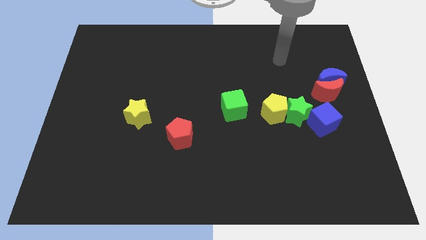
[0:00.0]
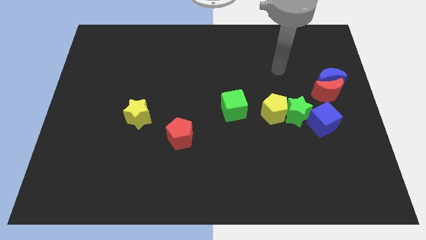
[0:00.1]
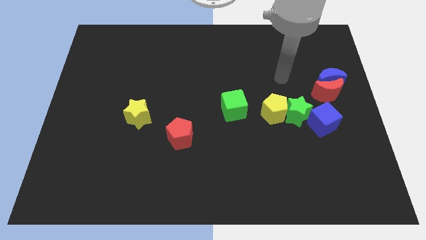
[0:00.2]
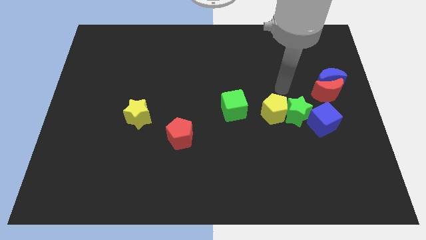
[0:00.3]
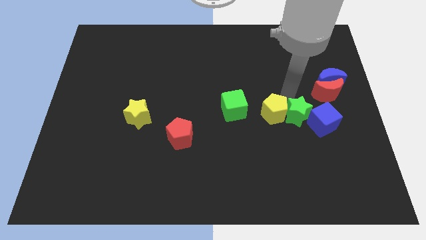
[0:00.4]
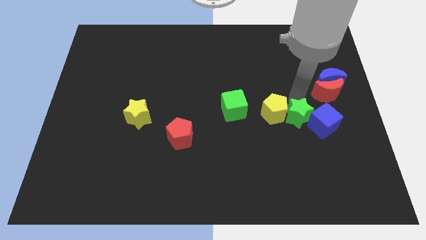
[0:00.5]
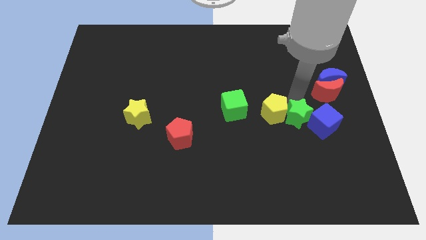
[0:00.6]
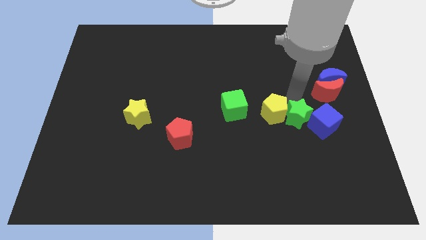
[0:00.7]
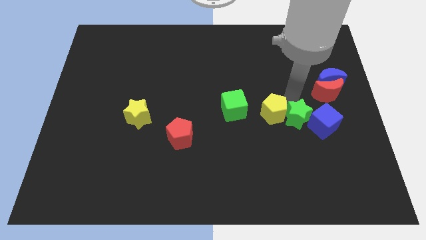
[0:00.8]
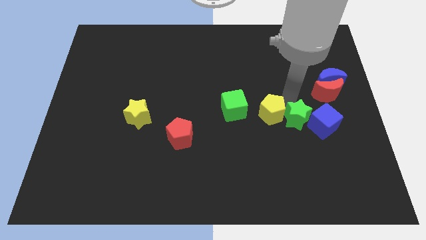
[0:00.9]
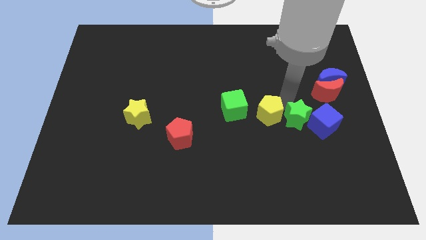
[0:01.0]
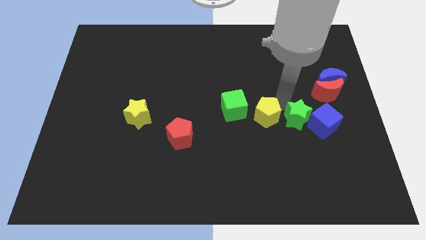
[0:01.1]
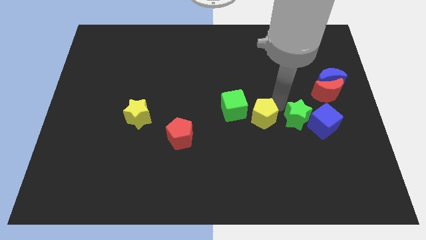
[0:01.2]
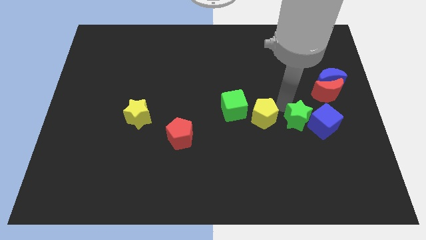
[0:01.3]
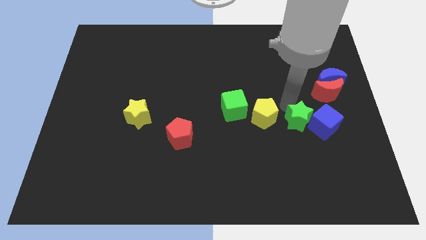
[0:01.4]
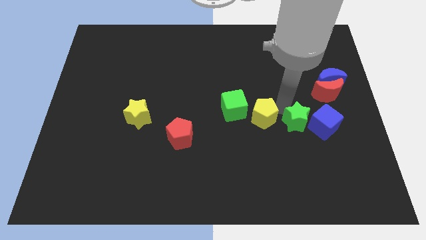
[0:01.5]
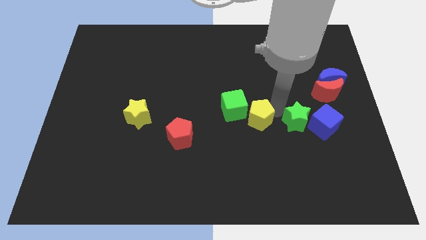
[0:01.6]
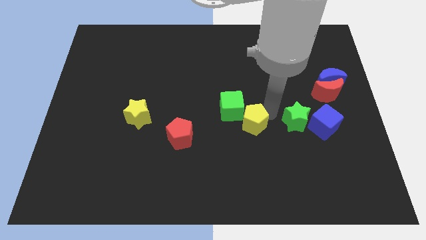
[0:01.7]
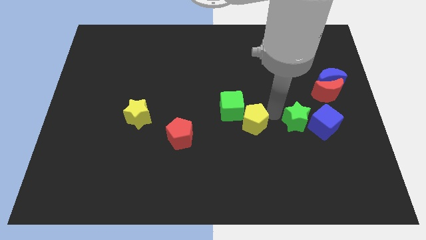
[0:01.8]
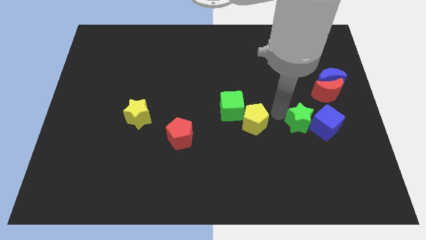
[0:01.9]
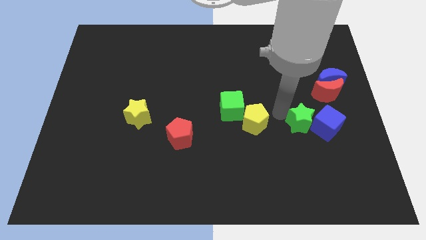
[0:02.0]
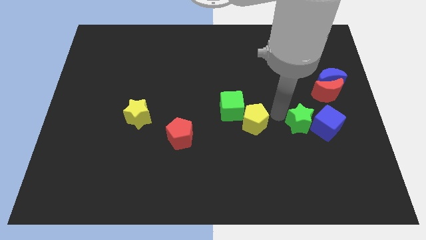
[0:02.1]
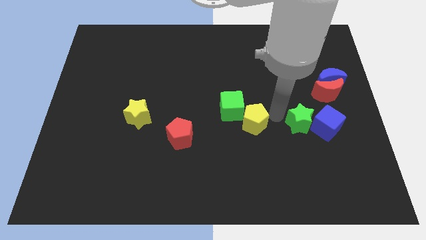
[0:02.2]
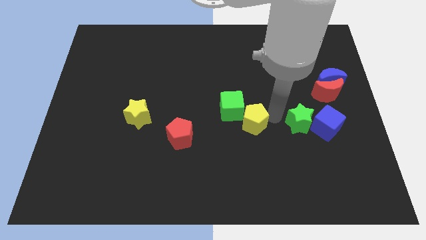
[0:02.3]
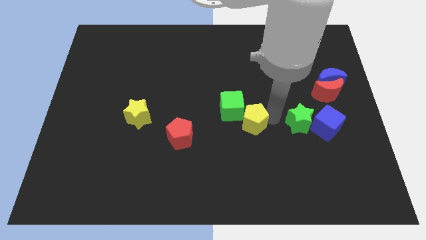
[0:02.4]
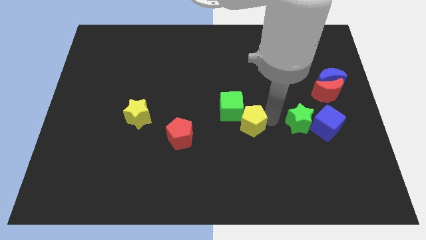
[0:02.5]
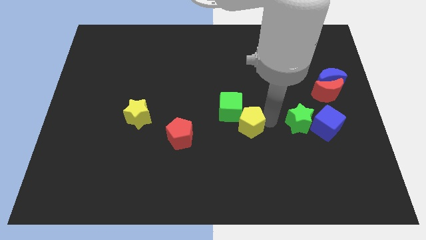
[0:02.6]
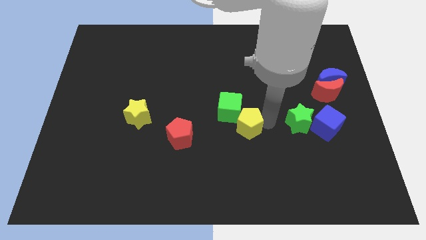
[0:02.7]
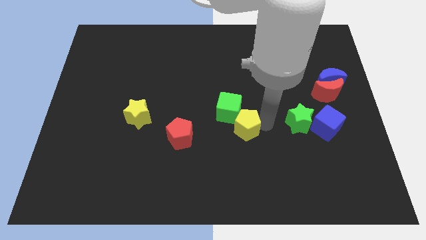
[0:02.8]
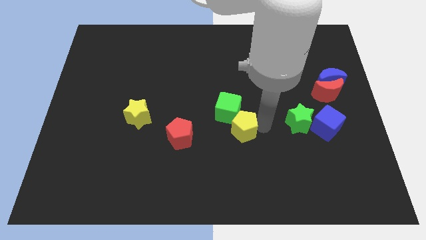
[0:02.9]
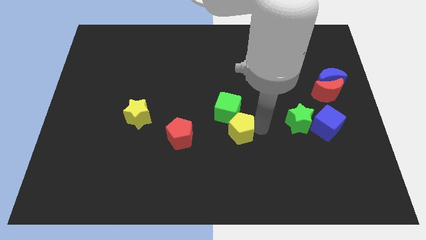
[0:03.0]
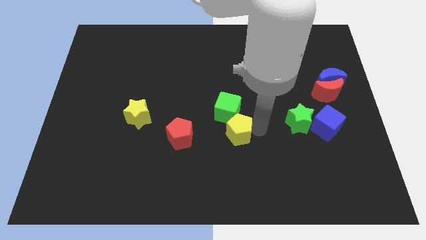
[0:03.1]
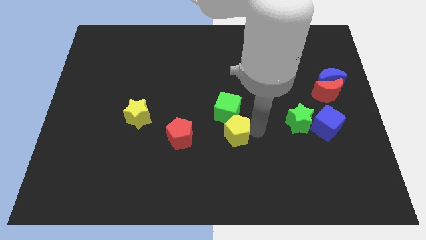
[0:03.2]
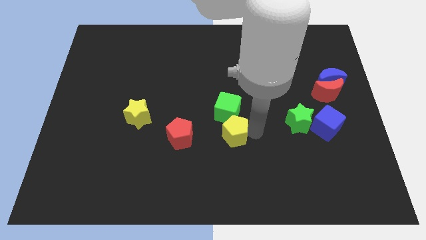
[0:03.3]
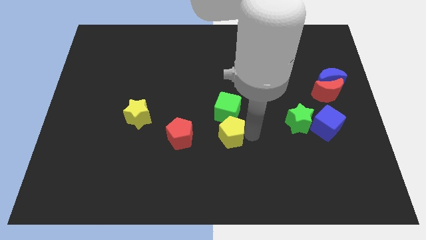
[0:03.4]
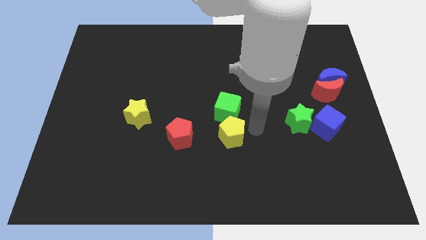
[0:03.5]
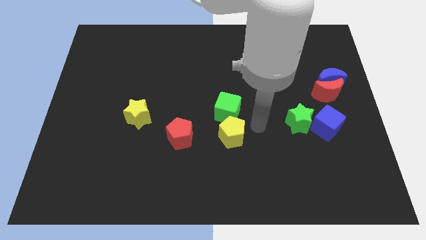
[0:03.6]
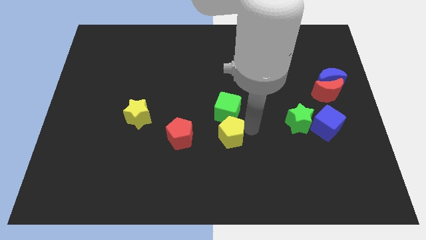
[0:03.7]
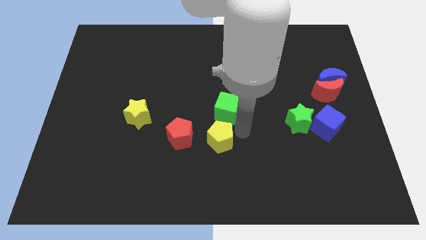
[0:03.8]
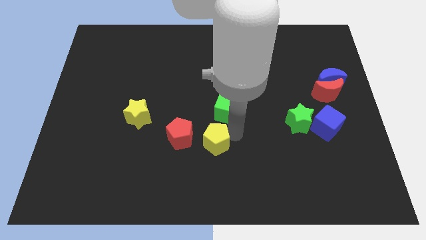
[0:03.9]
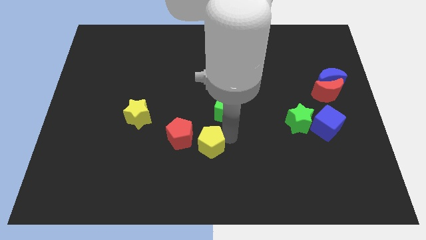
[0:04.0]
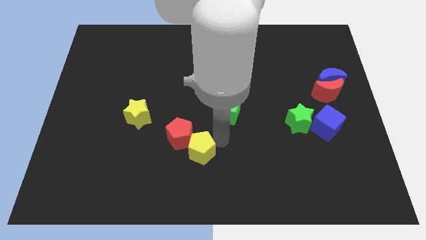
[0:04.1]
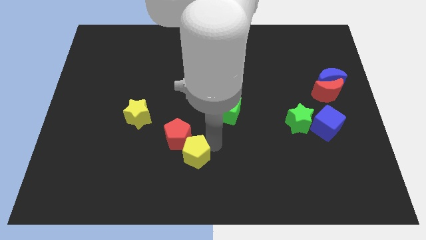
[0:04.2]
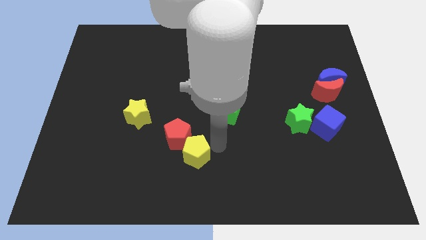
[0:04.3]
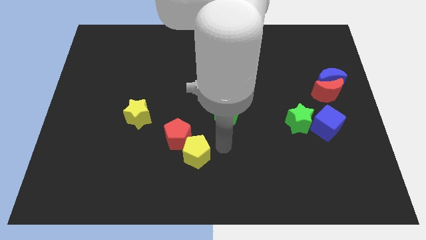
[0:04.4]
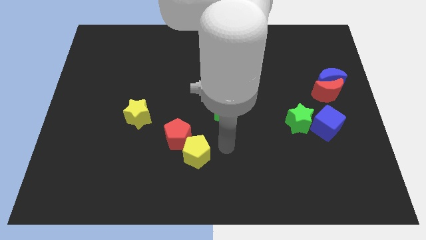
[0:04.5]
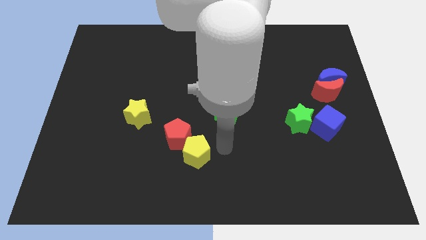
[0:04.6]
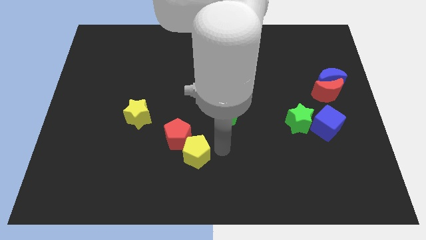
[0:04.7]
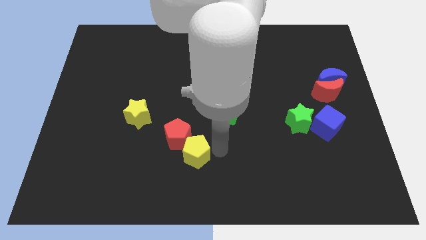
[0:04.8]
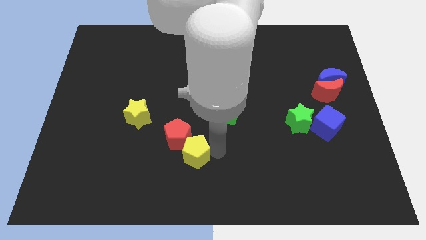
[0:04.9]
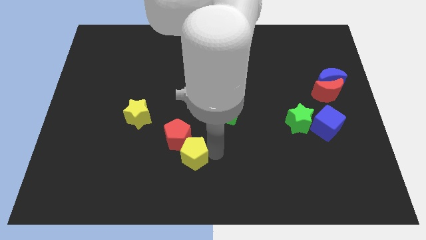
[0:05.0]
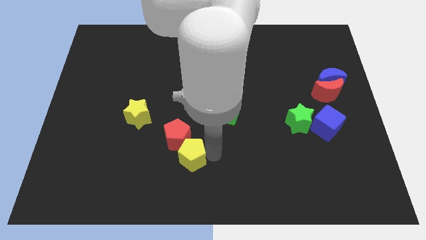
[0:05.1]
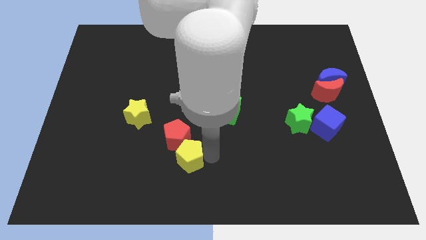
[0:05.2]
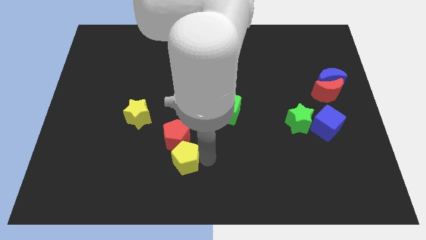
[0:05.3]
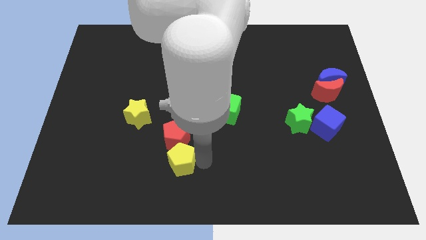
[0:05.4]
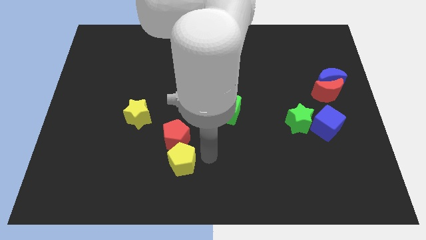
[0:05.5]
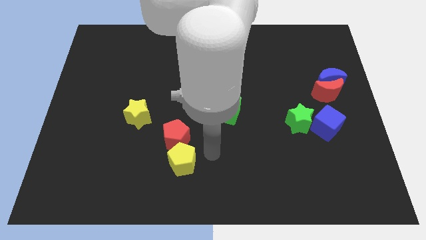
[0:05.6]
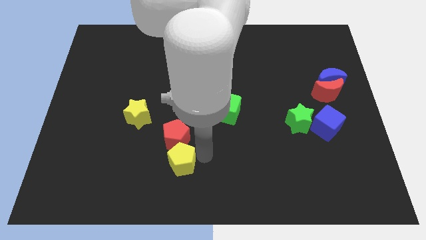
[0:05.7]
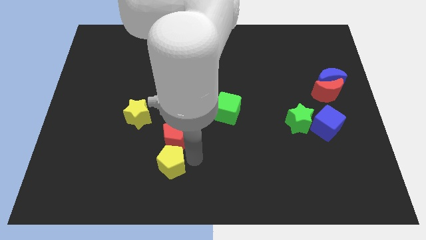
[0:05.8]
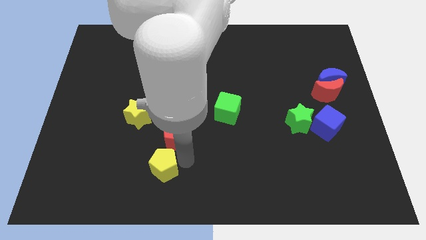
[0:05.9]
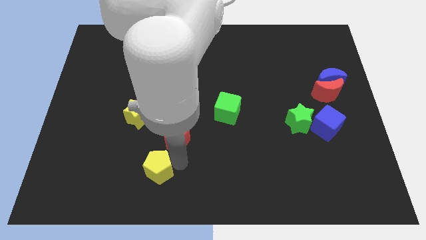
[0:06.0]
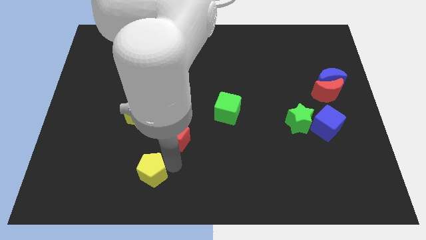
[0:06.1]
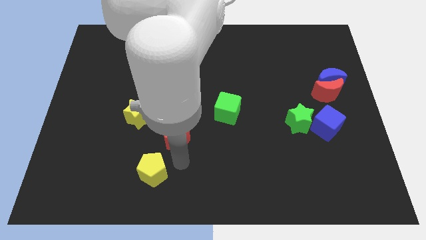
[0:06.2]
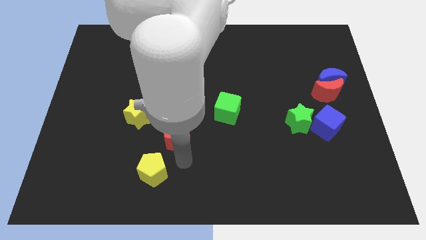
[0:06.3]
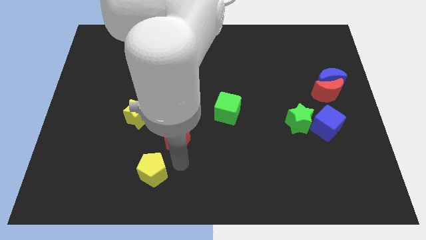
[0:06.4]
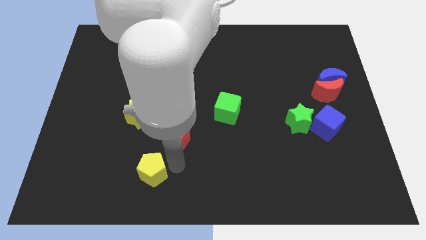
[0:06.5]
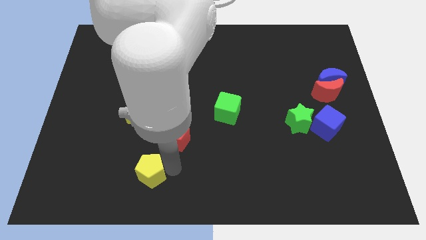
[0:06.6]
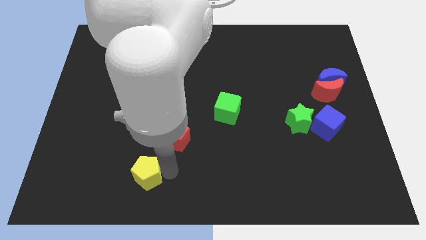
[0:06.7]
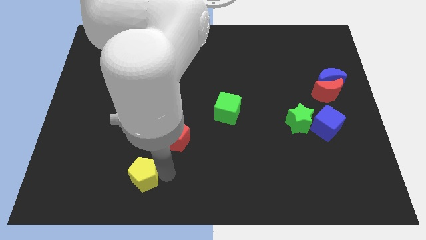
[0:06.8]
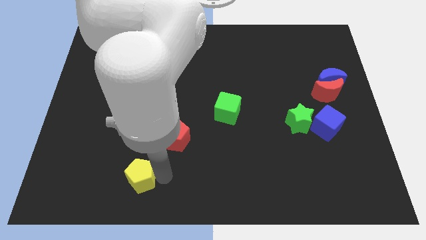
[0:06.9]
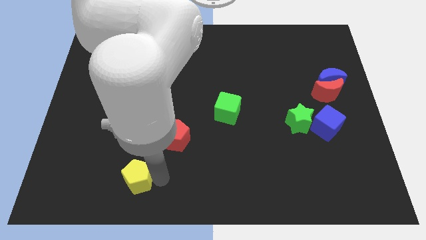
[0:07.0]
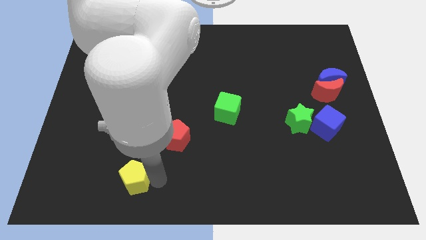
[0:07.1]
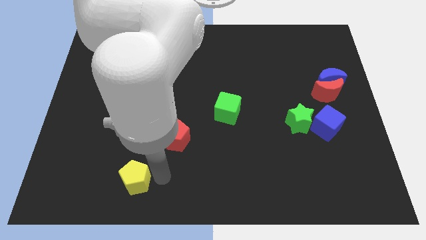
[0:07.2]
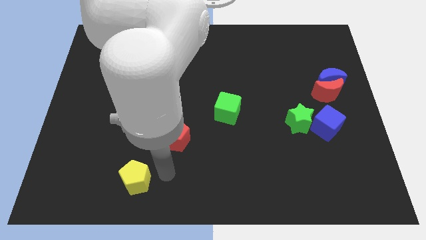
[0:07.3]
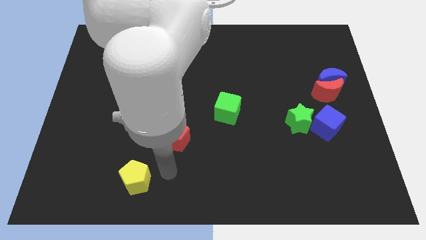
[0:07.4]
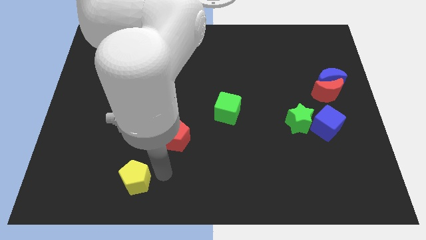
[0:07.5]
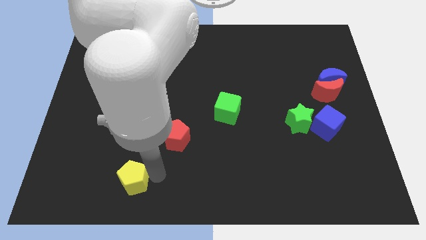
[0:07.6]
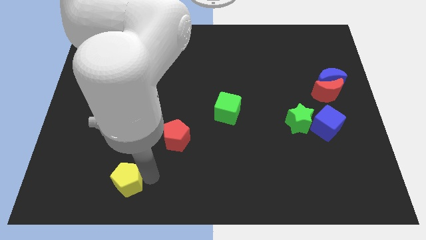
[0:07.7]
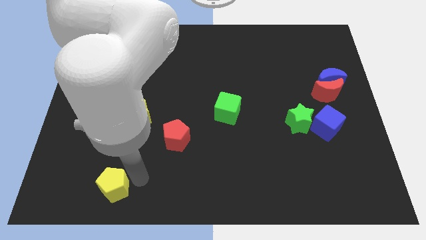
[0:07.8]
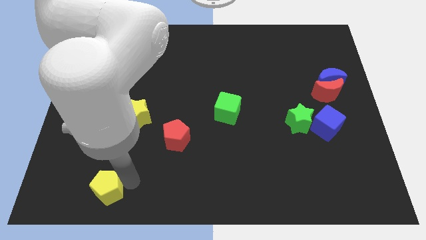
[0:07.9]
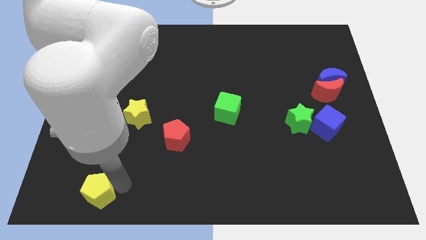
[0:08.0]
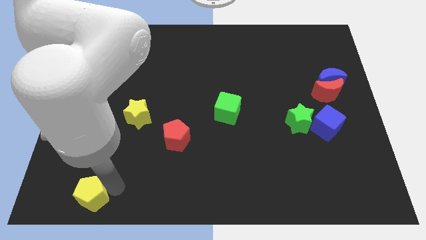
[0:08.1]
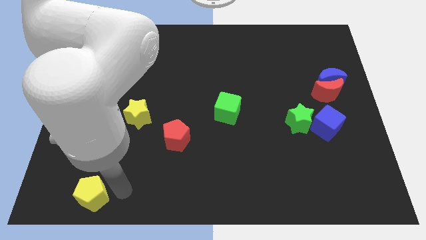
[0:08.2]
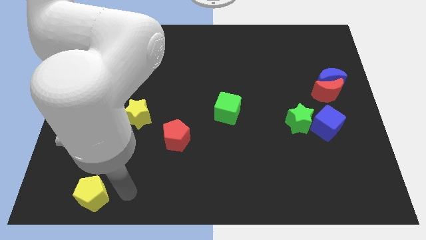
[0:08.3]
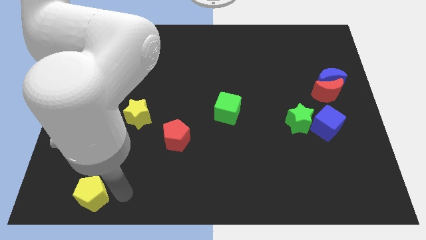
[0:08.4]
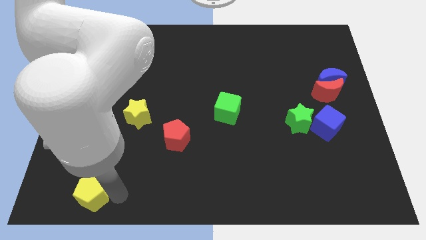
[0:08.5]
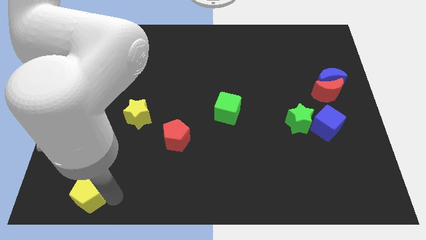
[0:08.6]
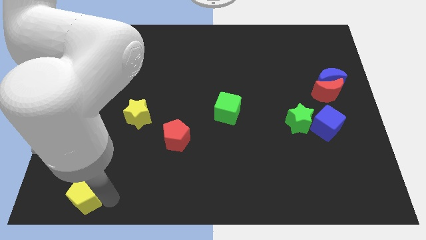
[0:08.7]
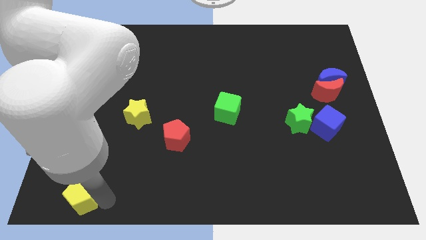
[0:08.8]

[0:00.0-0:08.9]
move the yellow pentagon to the bottom left corner
